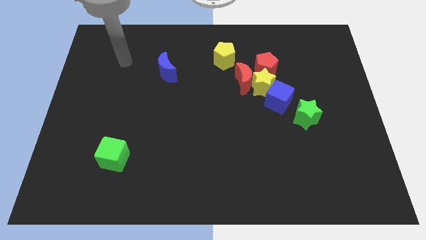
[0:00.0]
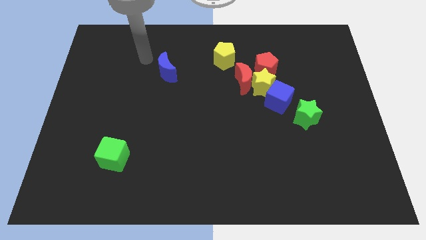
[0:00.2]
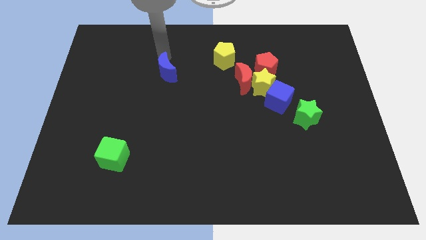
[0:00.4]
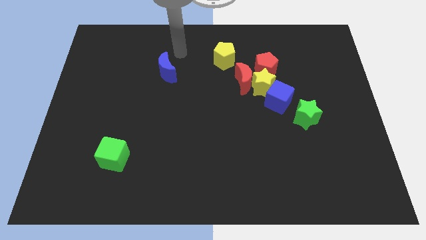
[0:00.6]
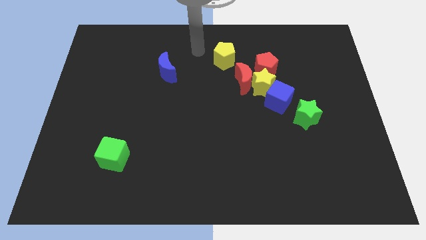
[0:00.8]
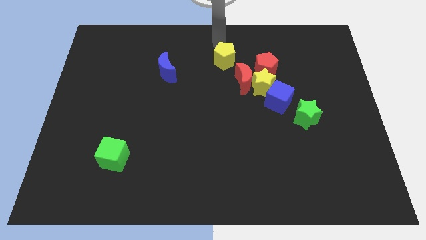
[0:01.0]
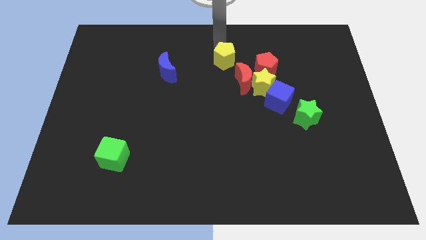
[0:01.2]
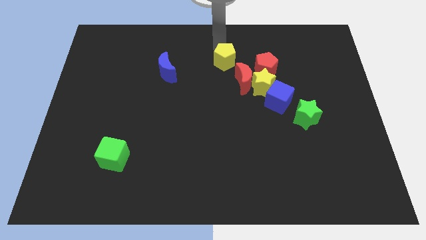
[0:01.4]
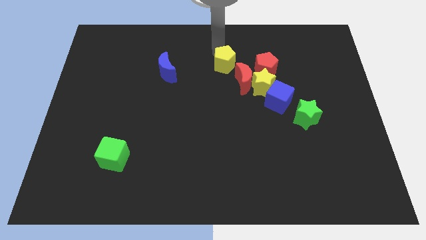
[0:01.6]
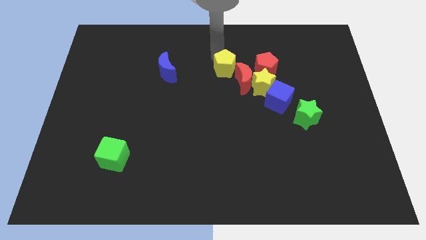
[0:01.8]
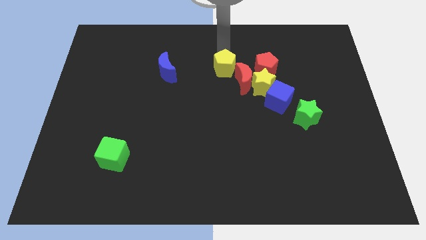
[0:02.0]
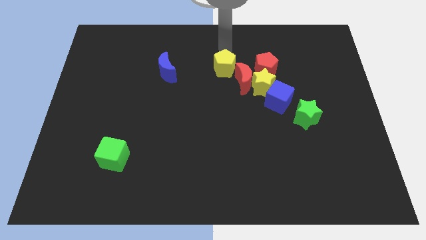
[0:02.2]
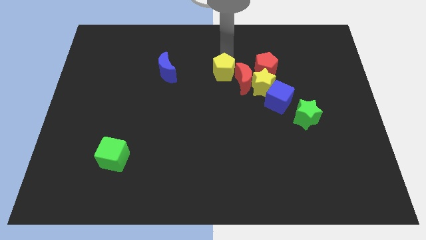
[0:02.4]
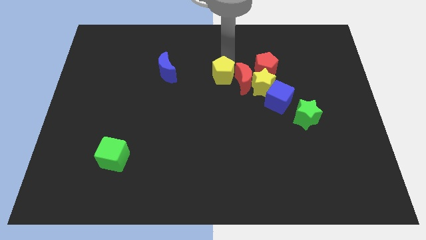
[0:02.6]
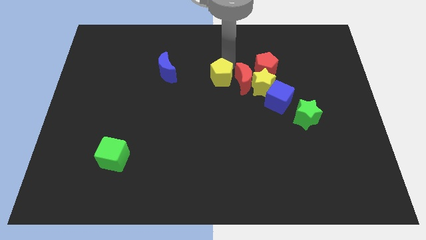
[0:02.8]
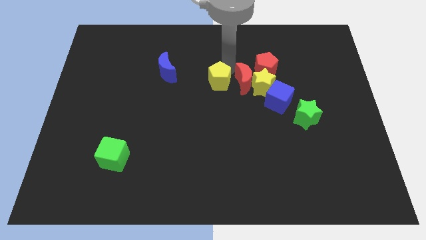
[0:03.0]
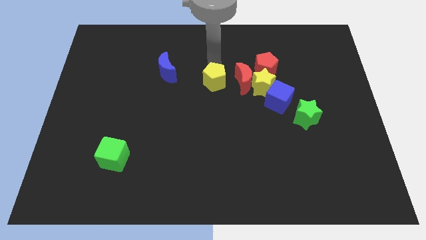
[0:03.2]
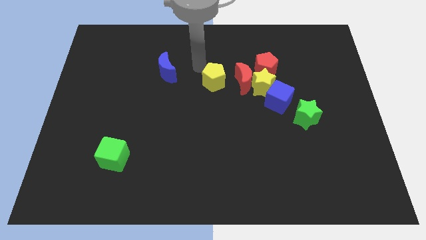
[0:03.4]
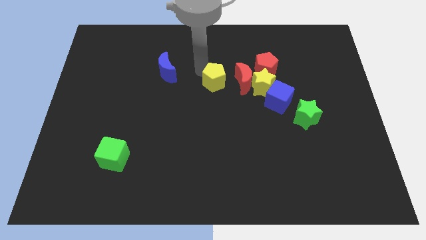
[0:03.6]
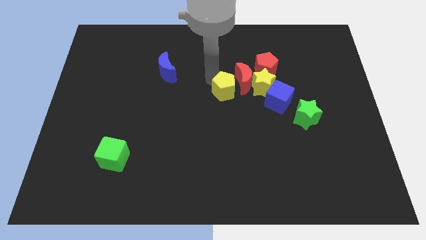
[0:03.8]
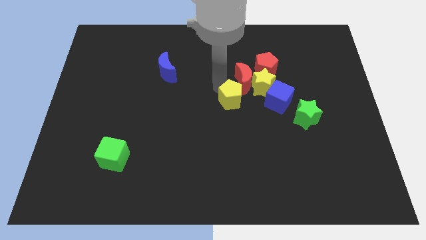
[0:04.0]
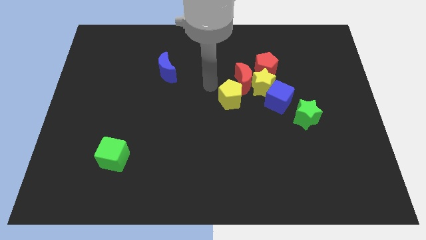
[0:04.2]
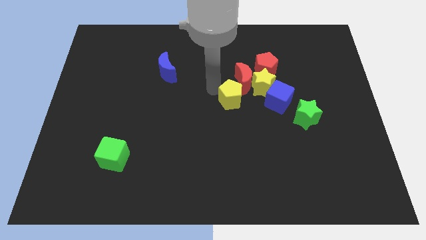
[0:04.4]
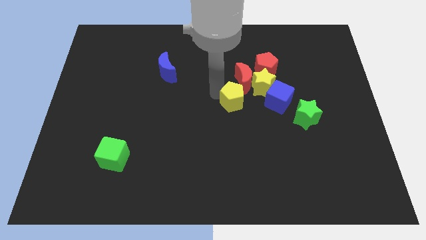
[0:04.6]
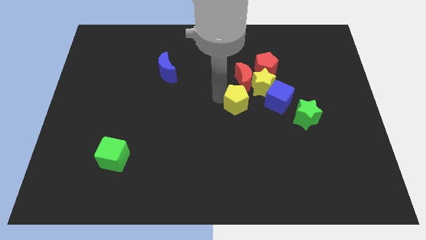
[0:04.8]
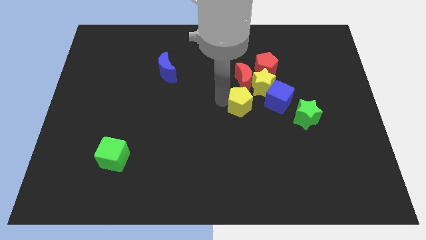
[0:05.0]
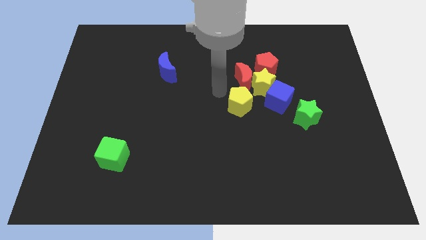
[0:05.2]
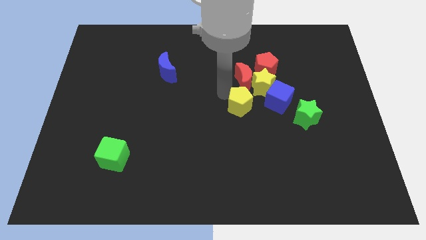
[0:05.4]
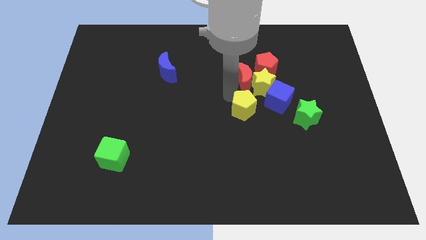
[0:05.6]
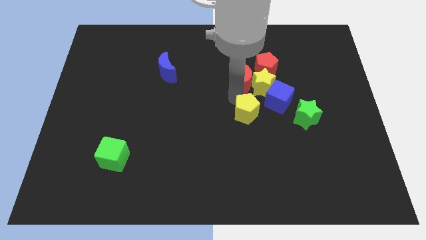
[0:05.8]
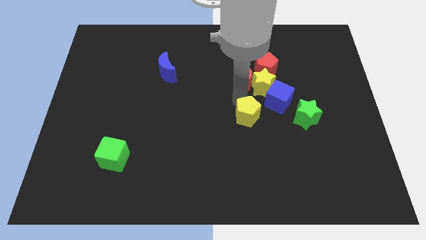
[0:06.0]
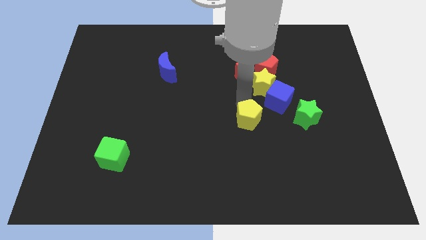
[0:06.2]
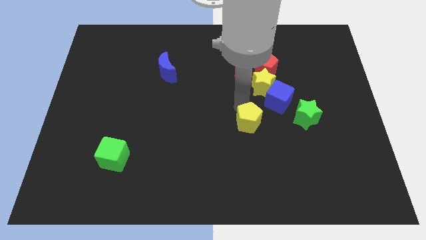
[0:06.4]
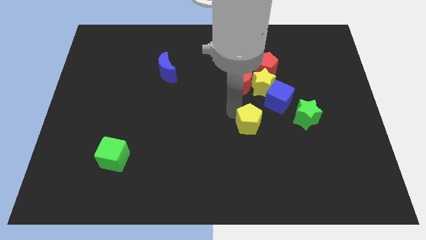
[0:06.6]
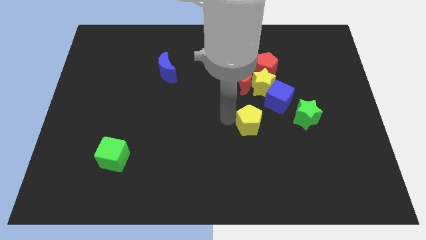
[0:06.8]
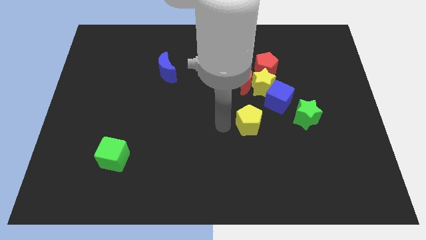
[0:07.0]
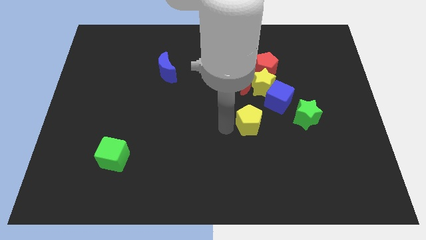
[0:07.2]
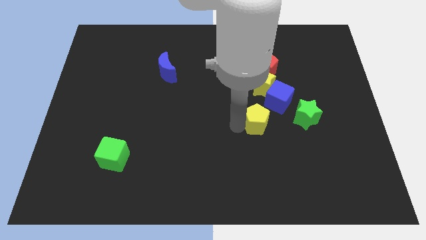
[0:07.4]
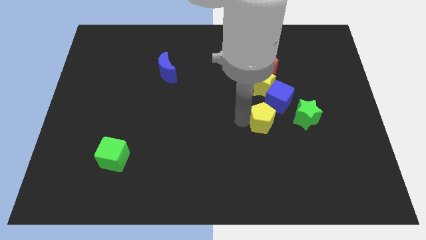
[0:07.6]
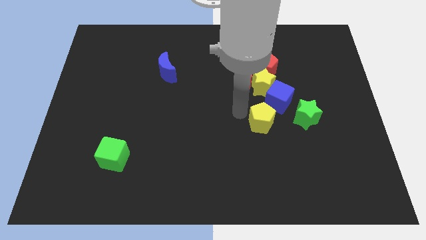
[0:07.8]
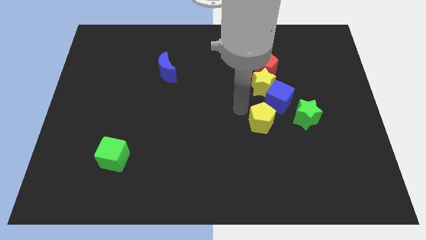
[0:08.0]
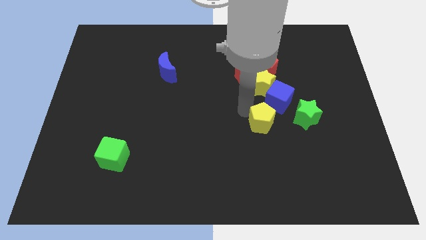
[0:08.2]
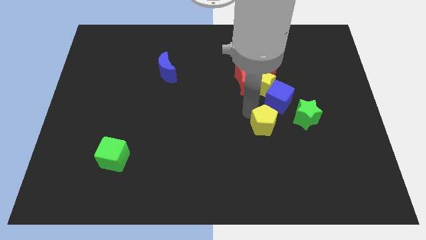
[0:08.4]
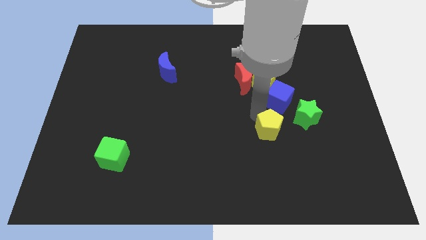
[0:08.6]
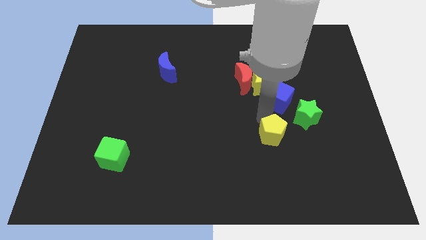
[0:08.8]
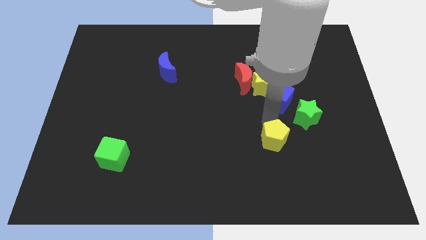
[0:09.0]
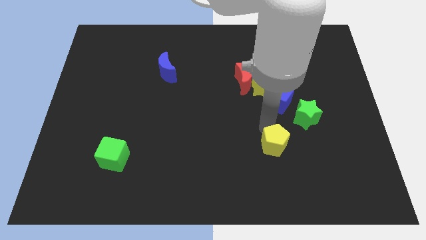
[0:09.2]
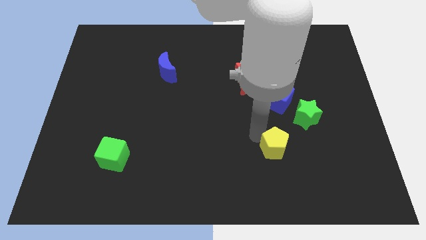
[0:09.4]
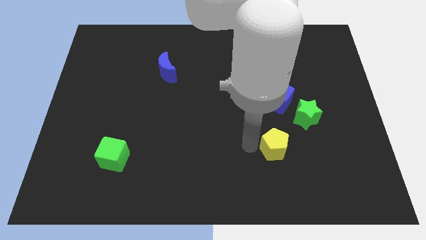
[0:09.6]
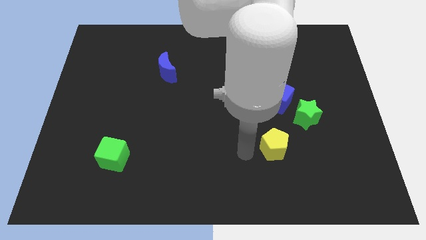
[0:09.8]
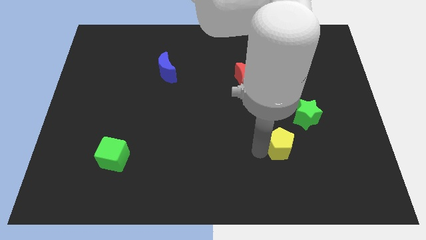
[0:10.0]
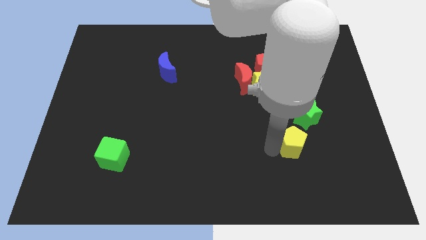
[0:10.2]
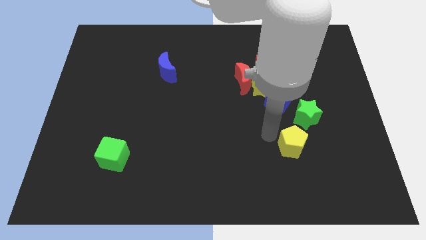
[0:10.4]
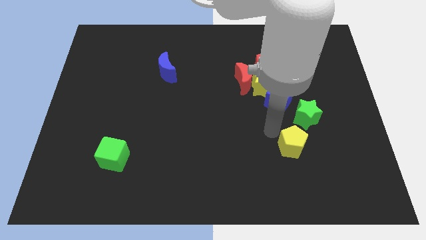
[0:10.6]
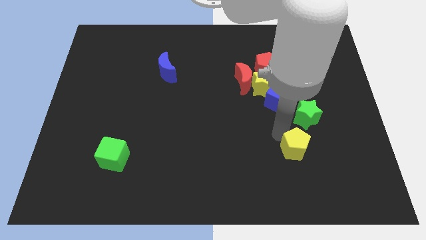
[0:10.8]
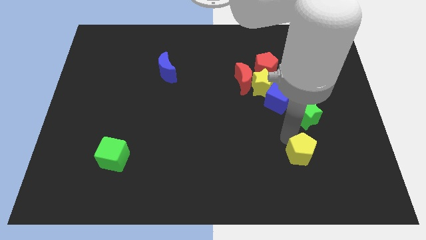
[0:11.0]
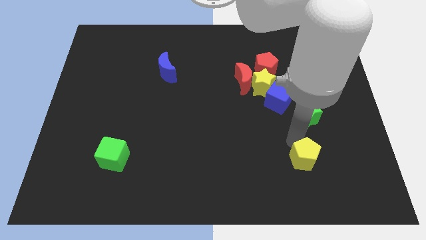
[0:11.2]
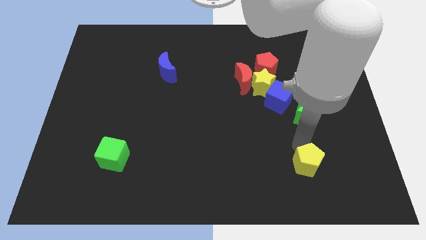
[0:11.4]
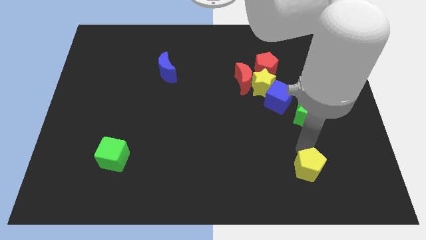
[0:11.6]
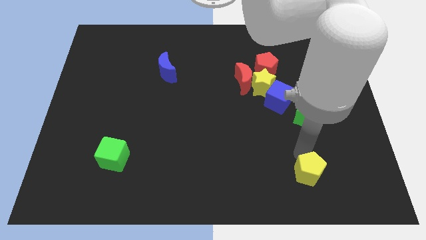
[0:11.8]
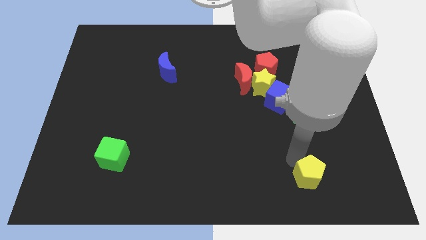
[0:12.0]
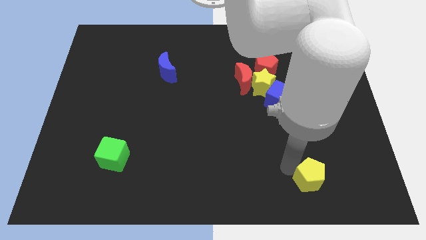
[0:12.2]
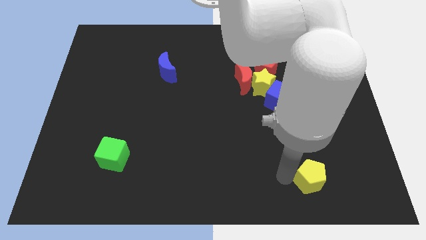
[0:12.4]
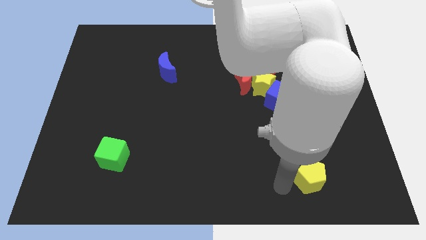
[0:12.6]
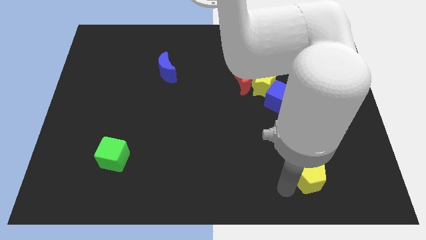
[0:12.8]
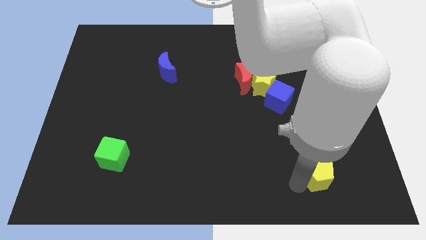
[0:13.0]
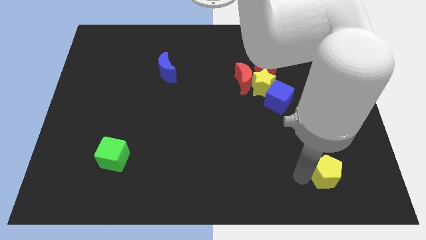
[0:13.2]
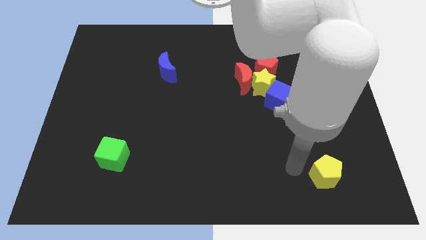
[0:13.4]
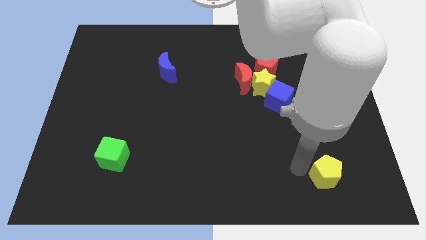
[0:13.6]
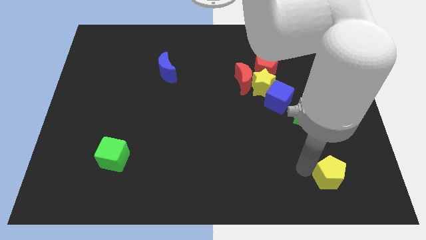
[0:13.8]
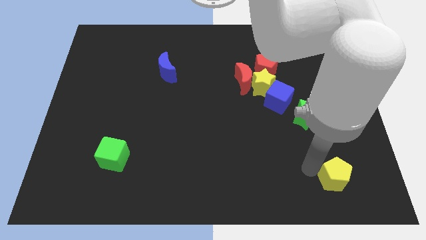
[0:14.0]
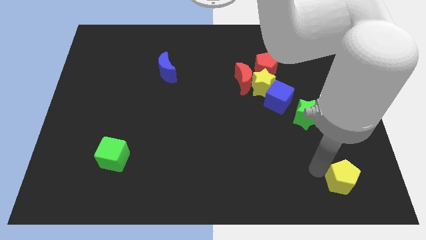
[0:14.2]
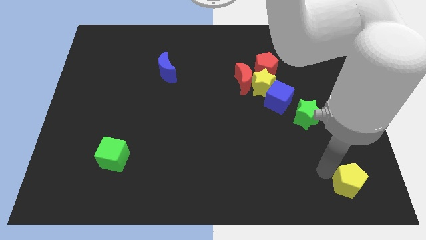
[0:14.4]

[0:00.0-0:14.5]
move the yellow pentagon to the bottom right

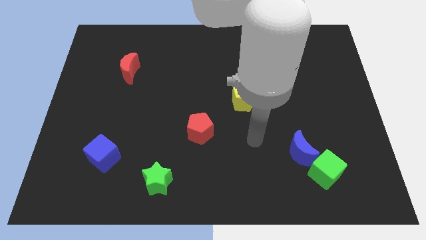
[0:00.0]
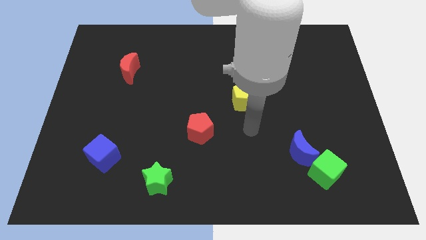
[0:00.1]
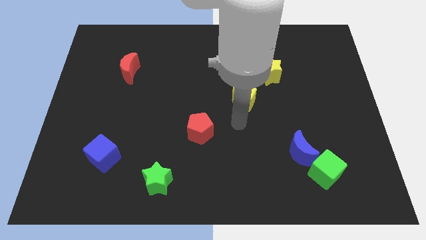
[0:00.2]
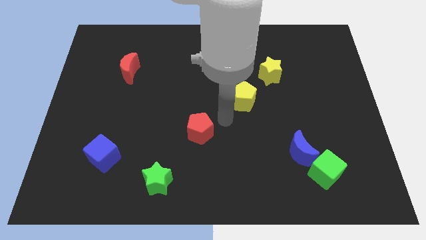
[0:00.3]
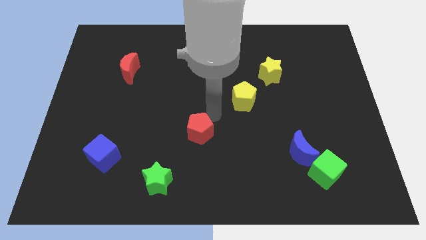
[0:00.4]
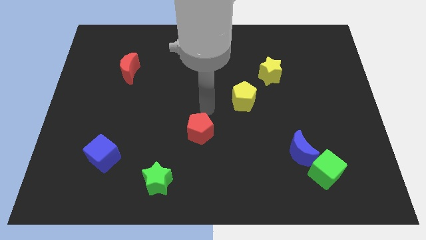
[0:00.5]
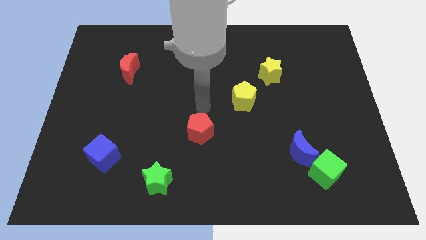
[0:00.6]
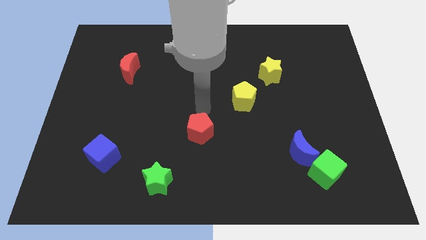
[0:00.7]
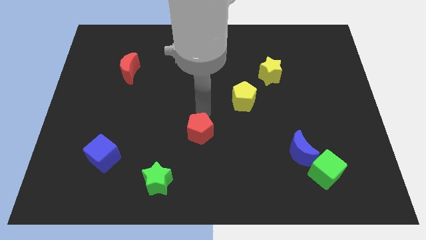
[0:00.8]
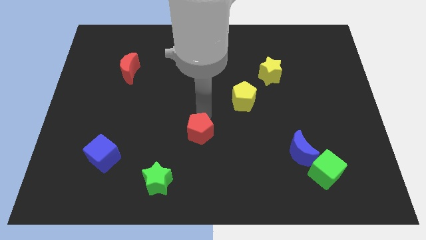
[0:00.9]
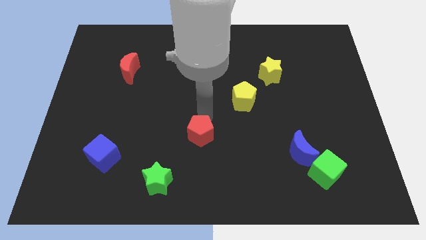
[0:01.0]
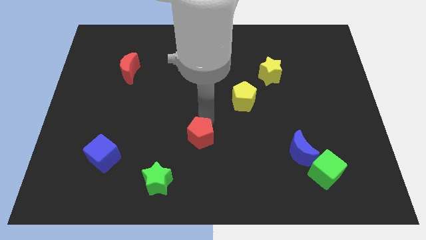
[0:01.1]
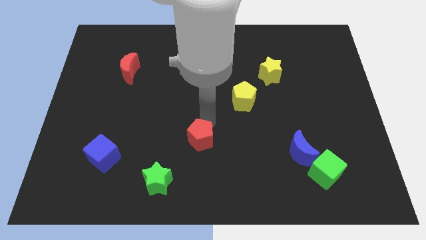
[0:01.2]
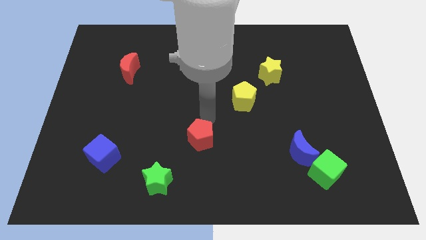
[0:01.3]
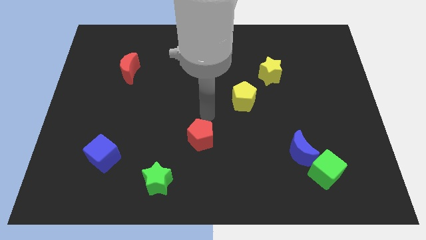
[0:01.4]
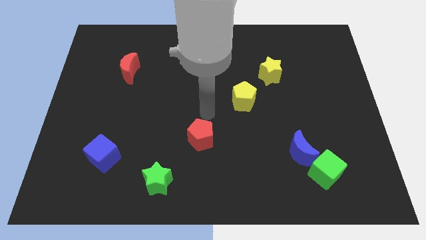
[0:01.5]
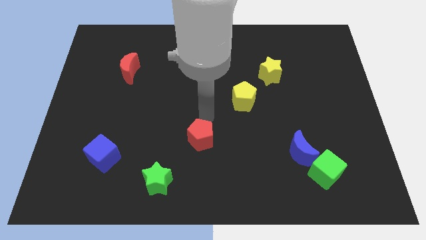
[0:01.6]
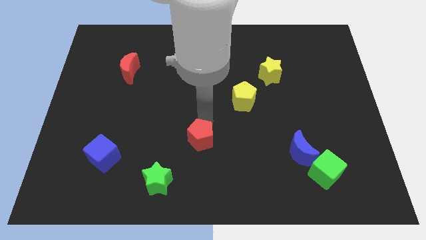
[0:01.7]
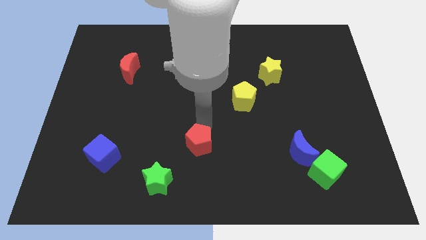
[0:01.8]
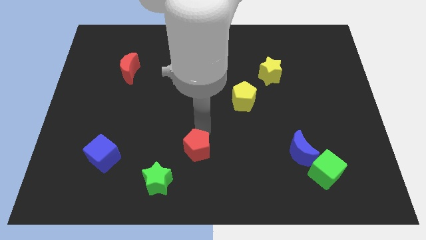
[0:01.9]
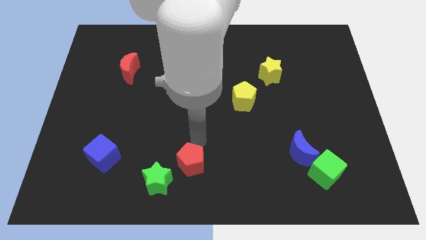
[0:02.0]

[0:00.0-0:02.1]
slide the red pentagon to the bottom
